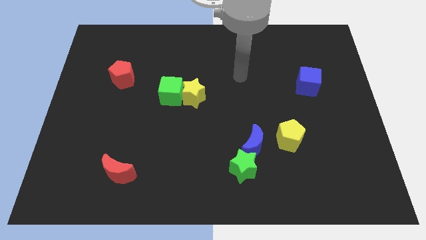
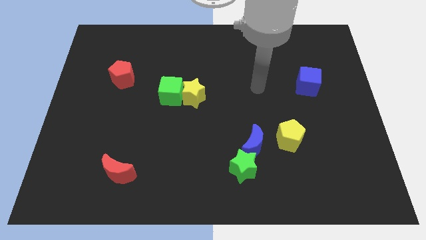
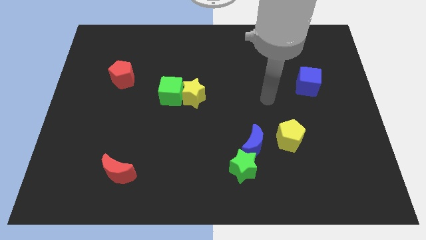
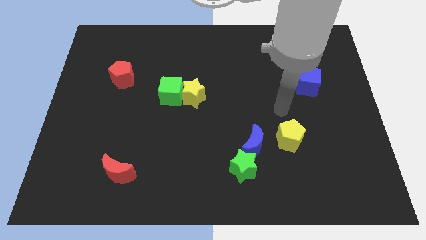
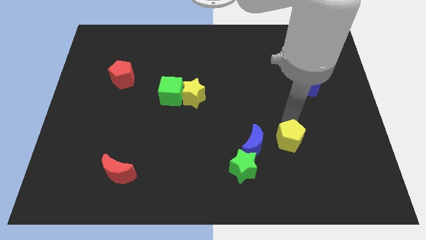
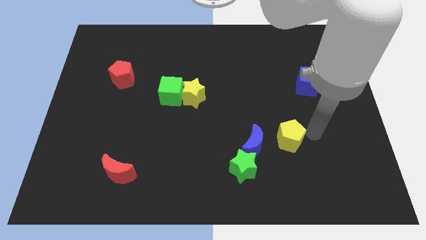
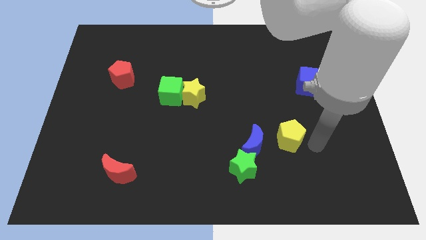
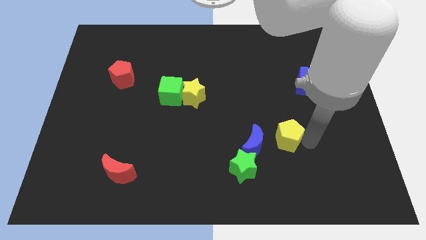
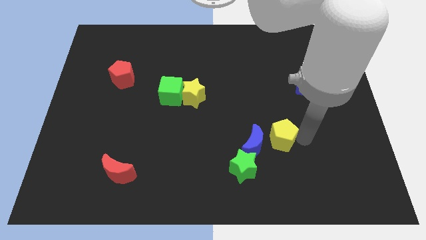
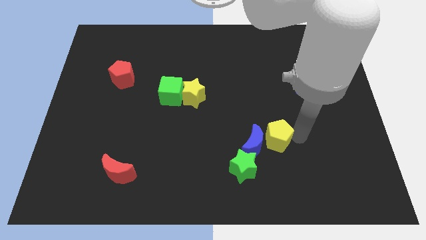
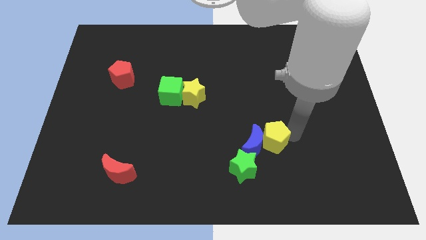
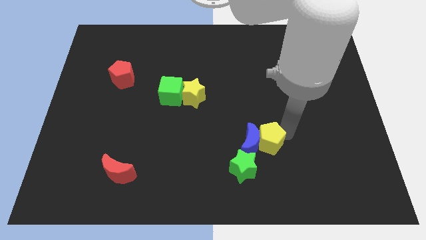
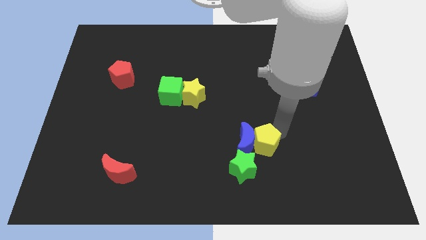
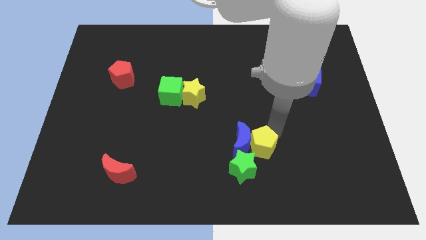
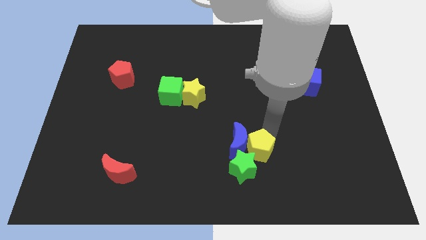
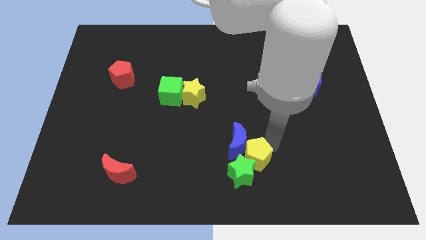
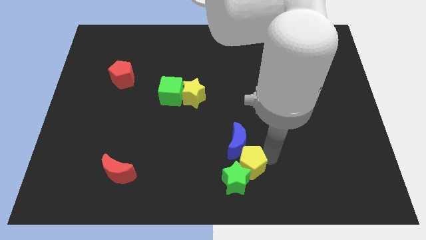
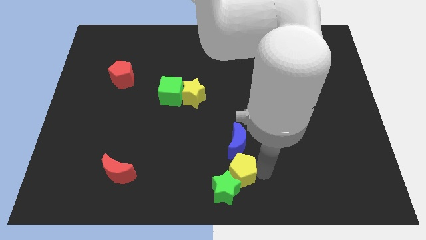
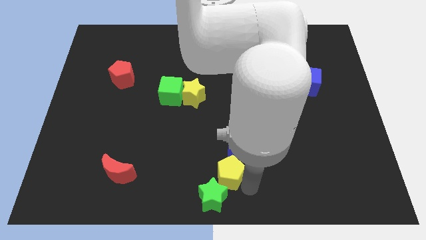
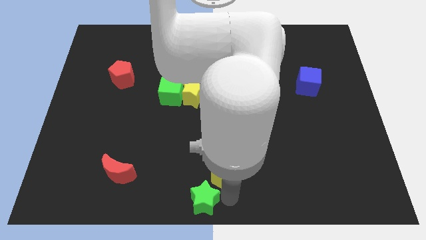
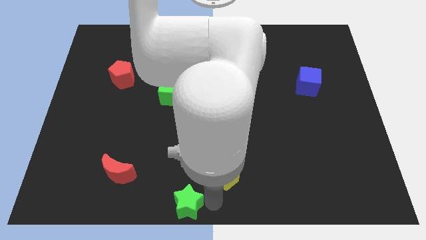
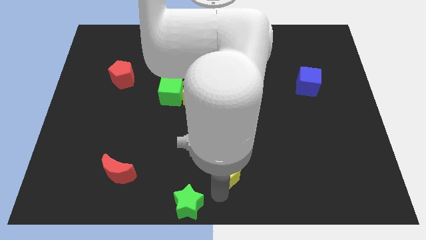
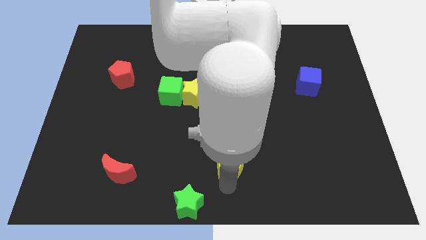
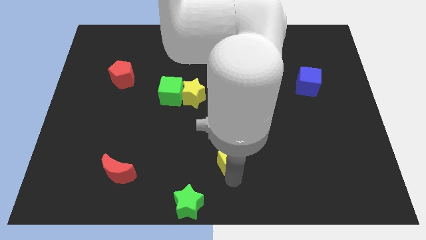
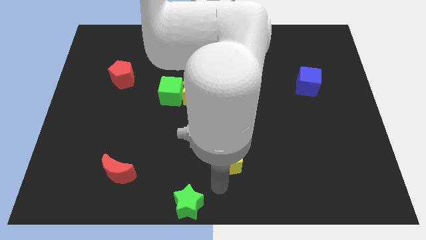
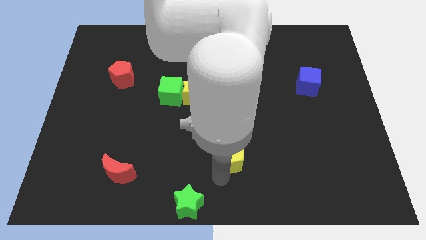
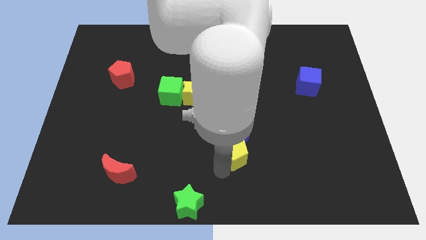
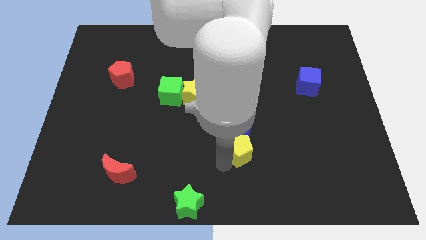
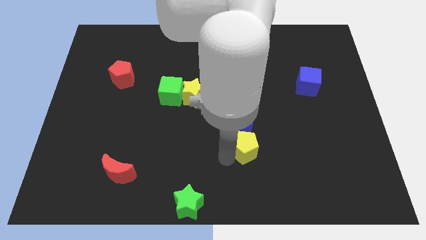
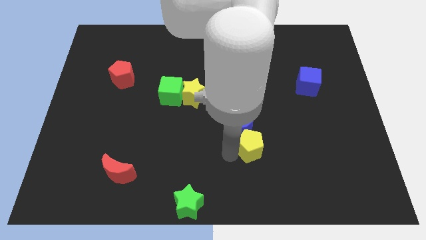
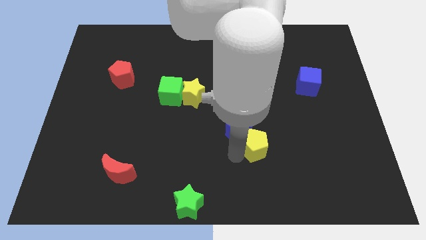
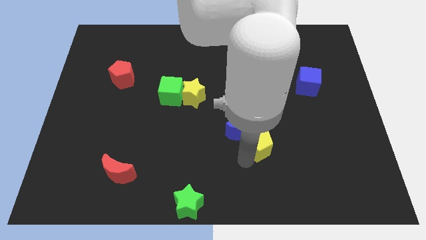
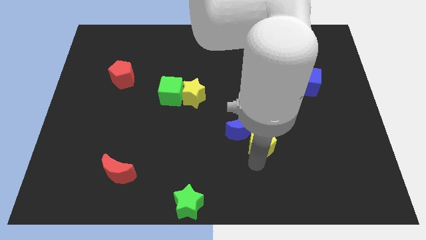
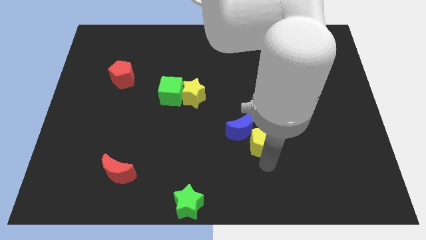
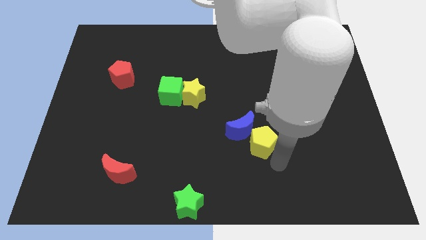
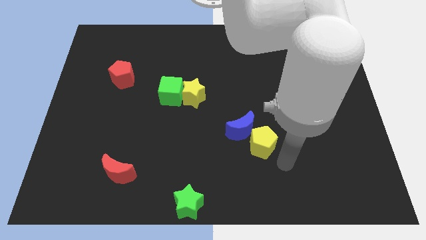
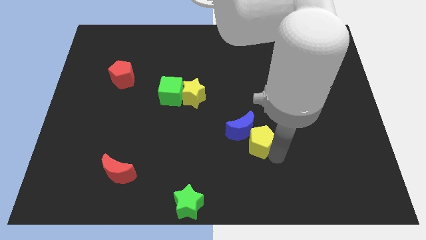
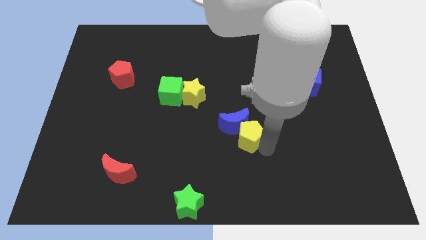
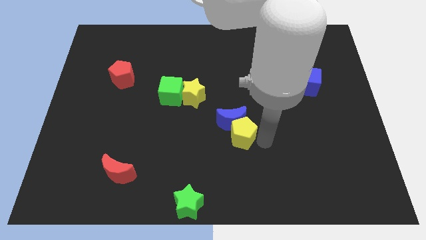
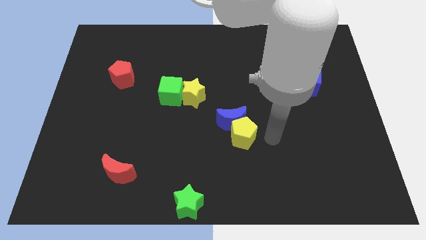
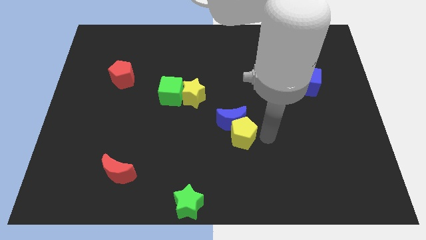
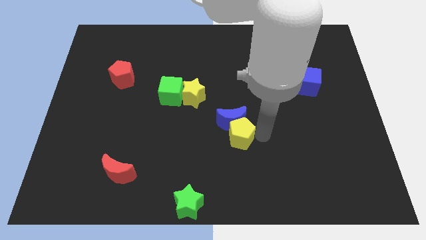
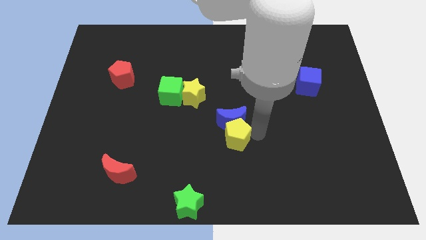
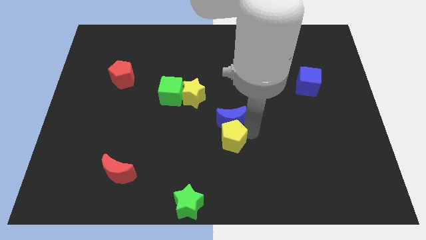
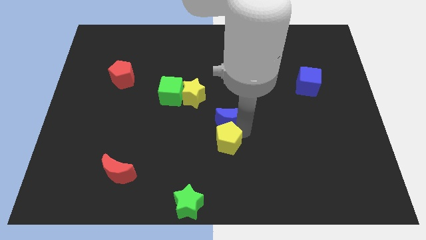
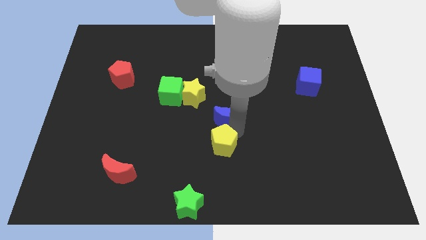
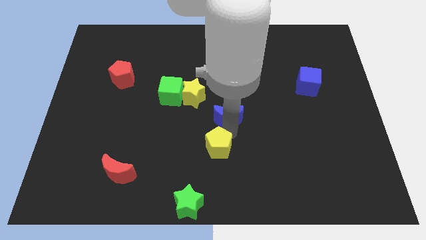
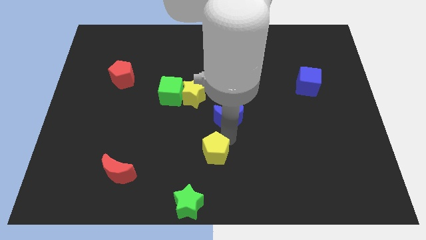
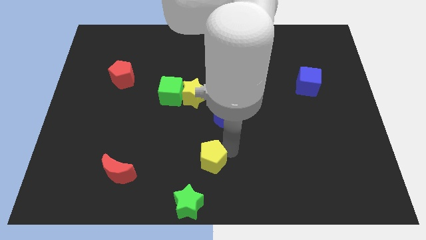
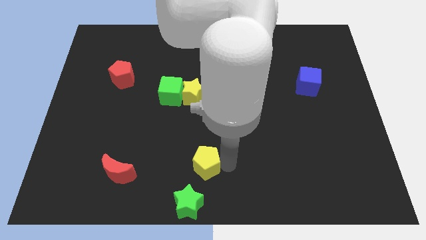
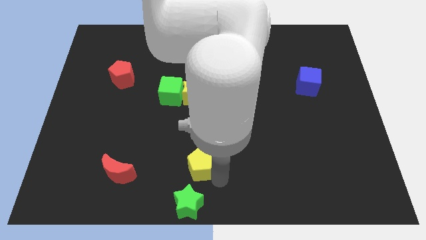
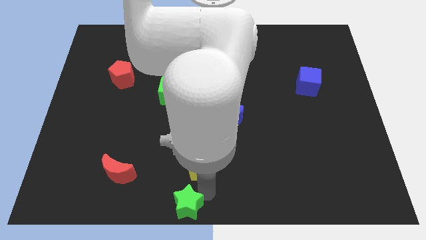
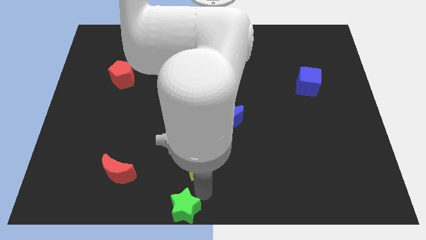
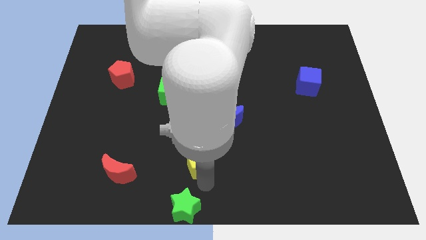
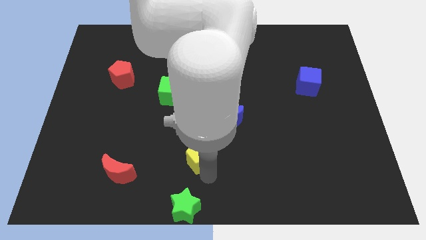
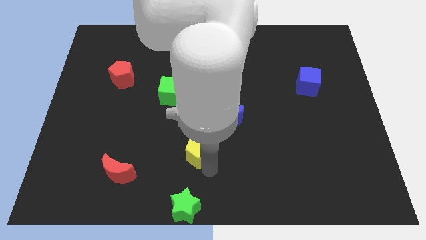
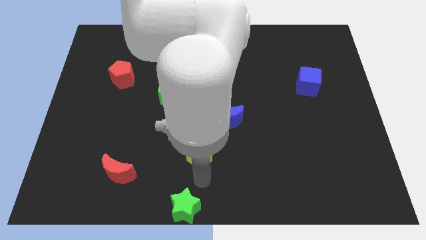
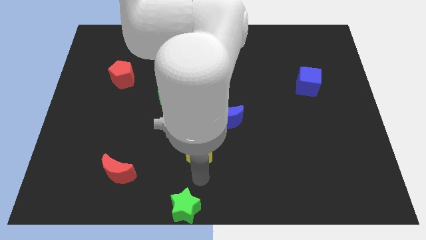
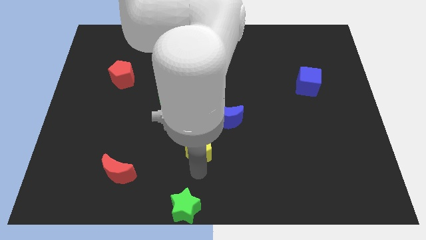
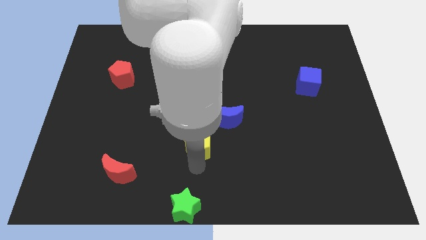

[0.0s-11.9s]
move the yellow pentagon left

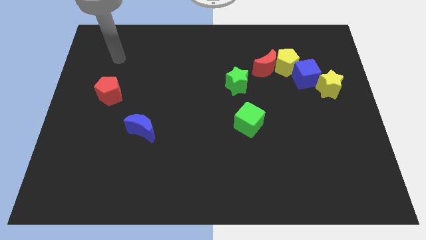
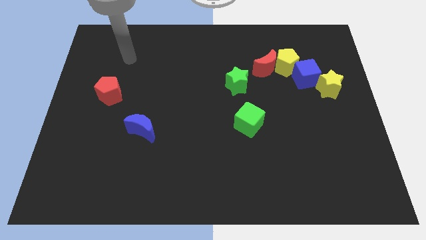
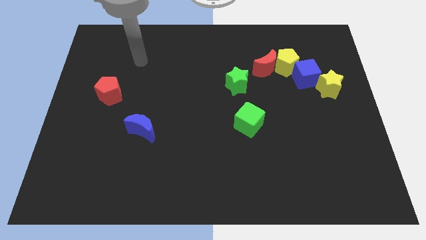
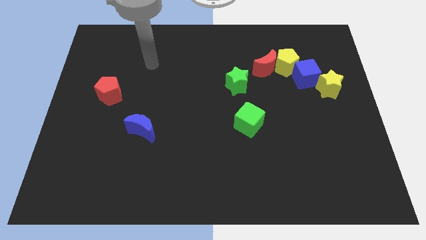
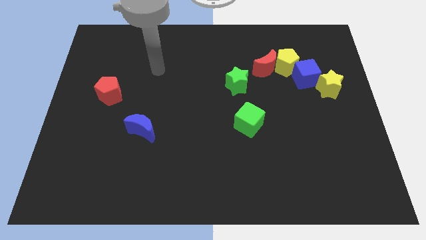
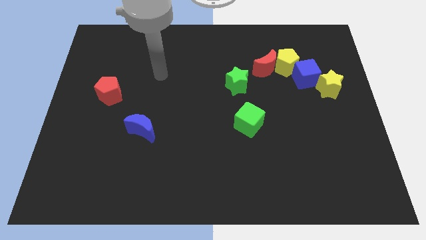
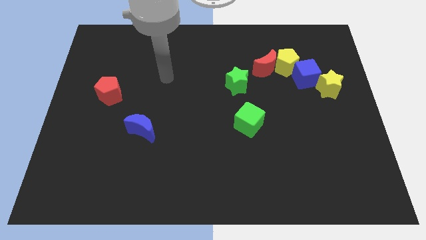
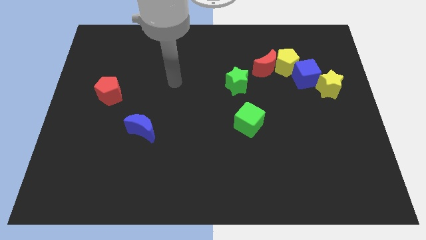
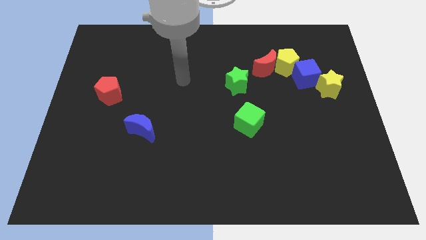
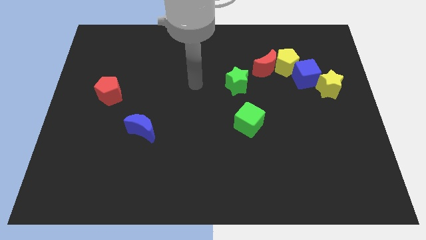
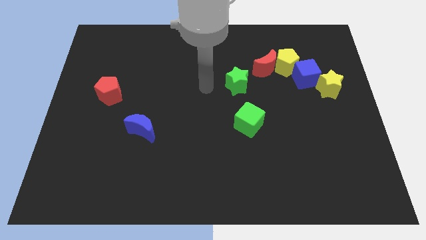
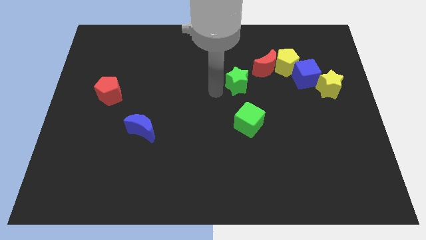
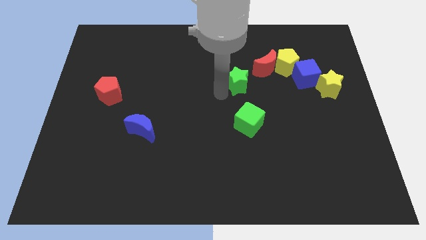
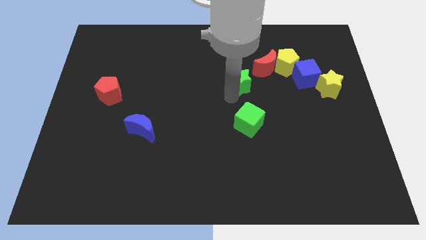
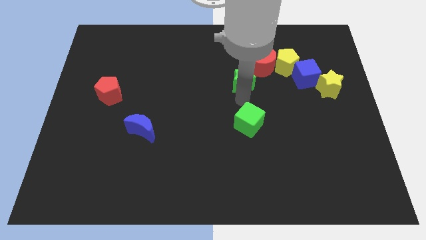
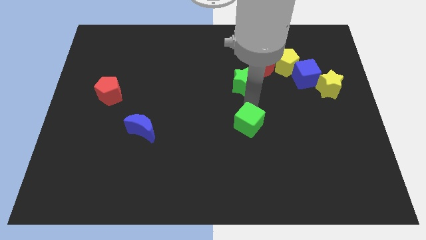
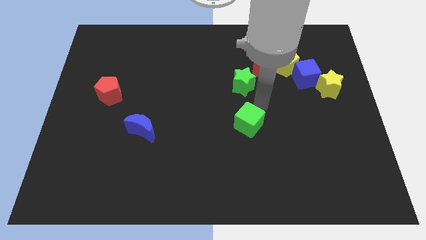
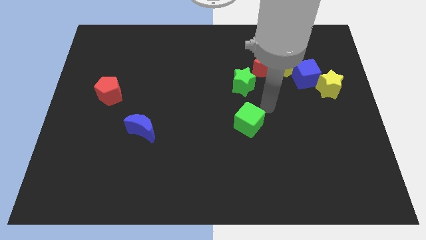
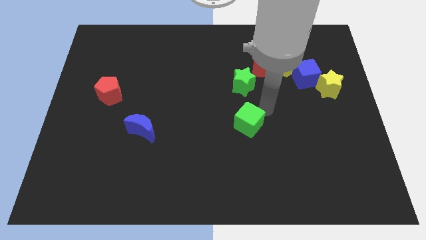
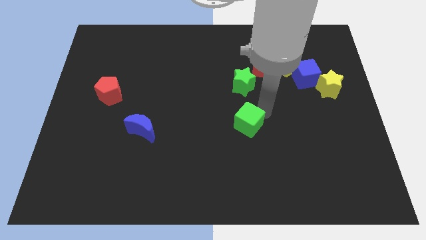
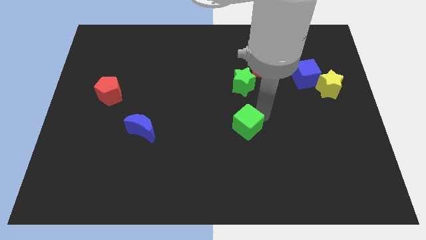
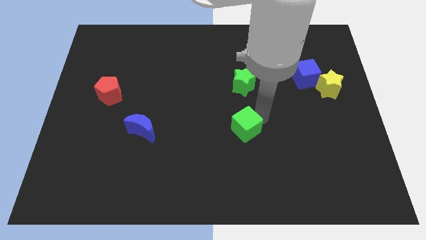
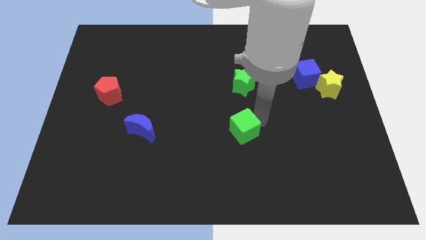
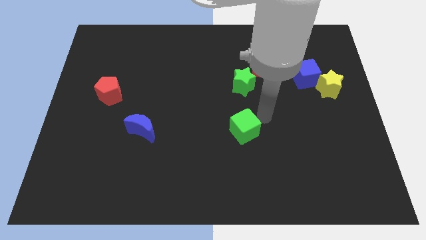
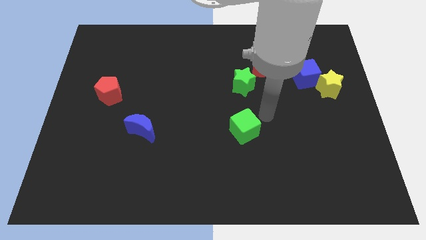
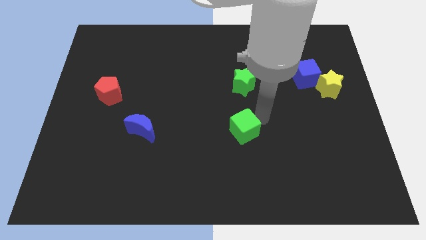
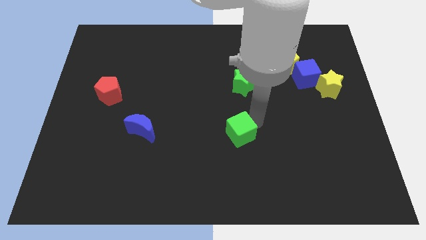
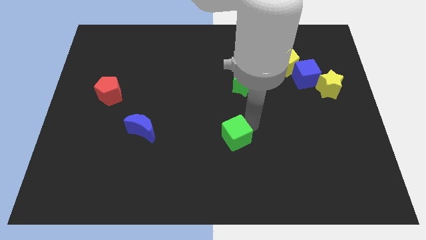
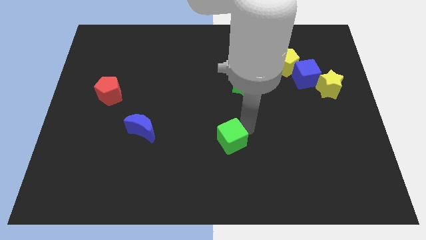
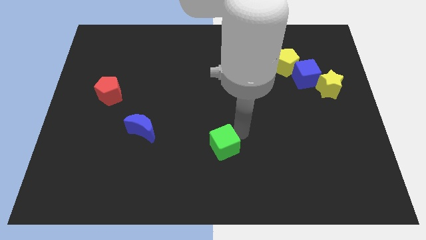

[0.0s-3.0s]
move the green cube a bit down and to the left
